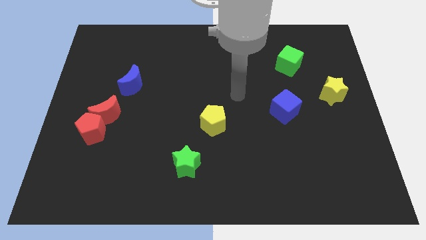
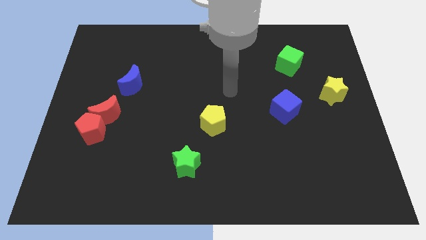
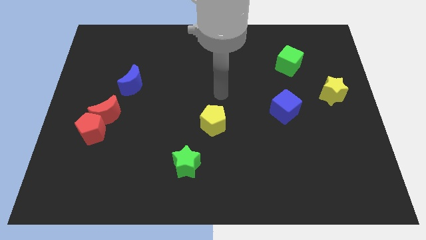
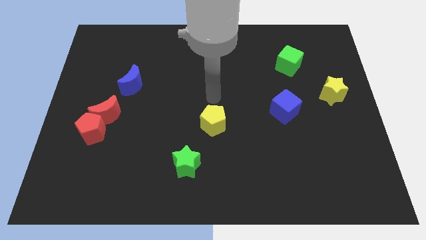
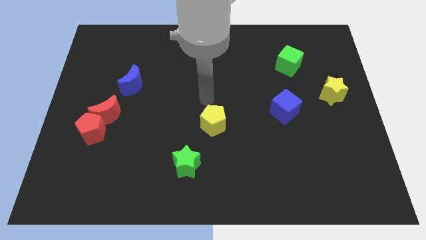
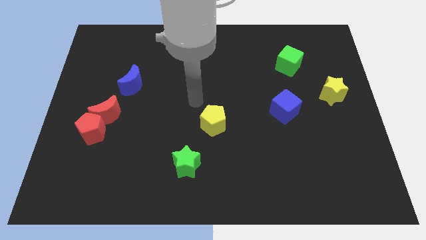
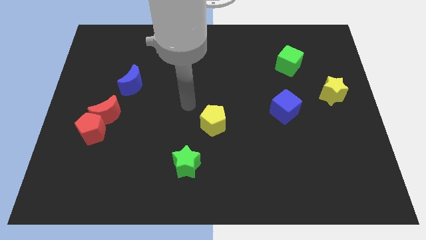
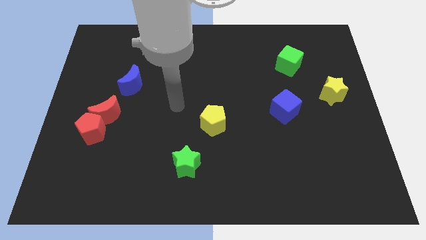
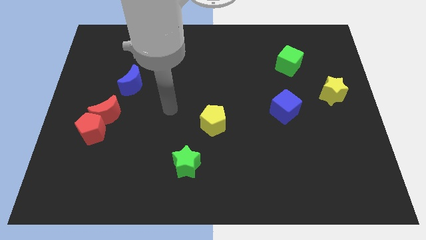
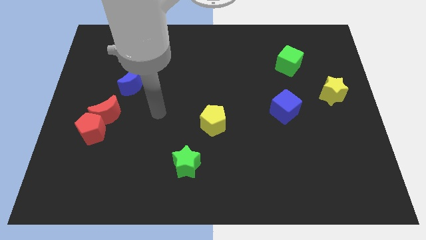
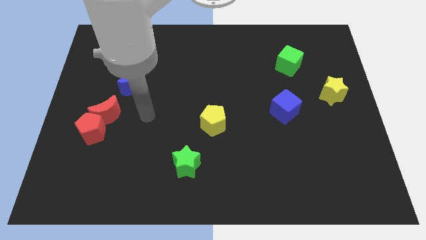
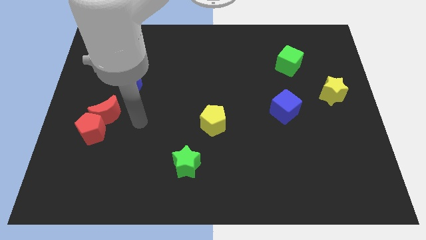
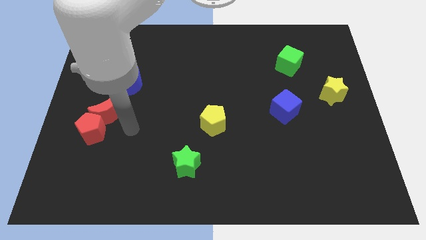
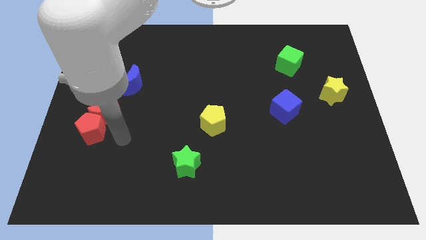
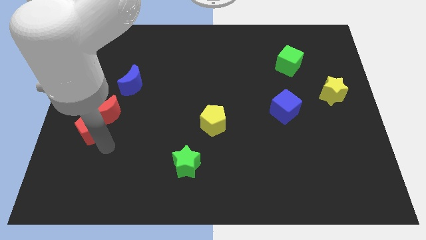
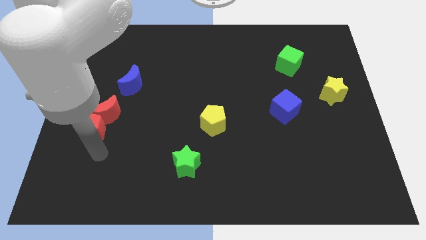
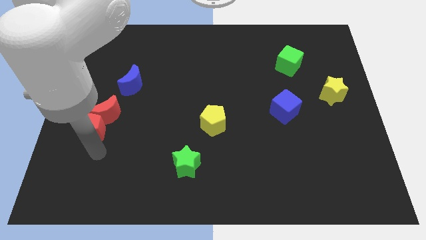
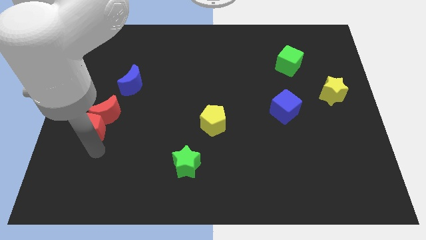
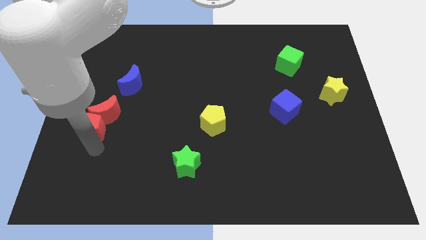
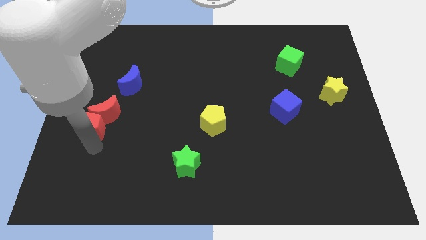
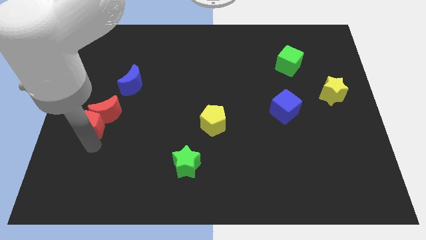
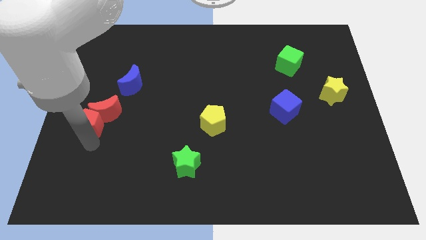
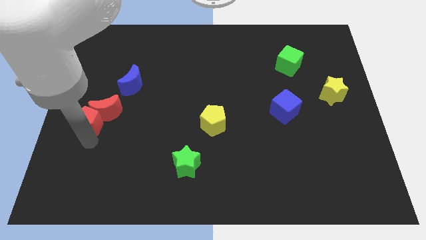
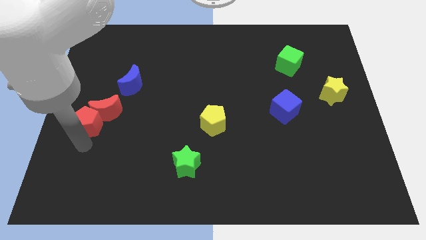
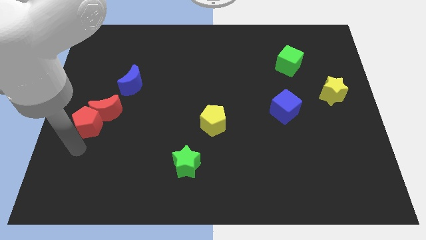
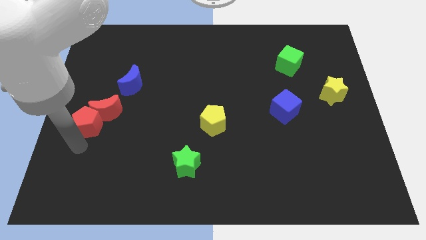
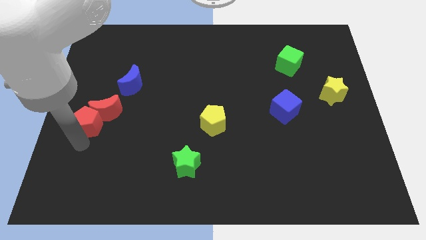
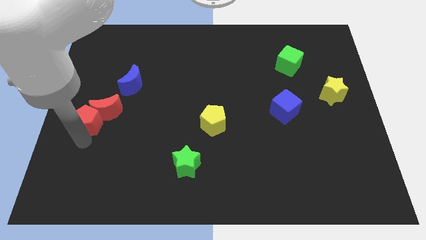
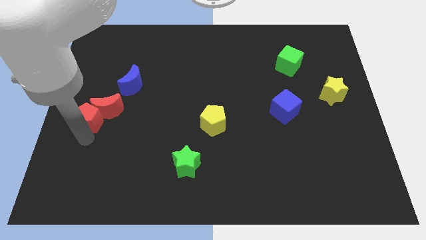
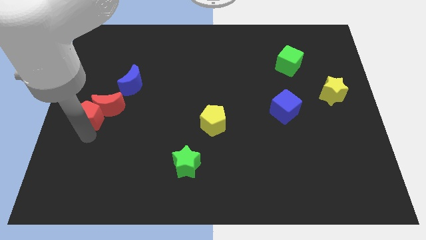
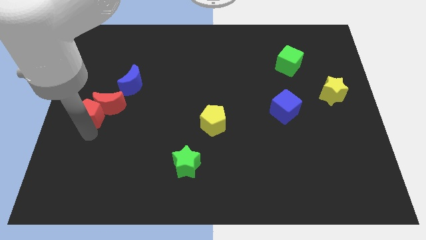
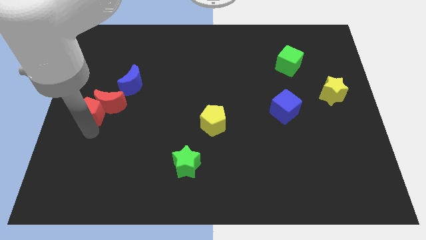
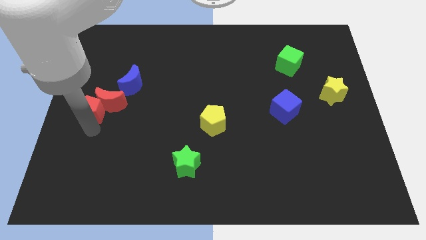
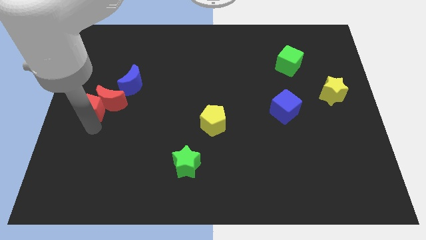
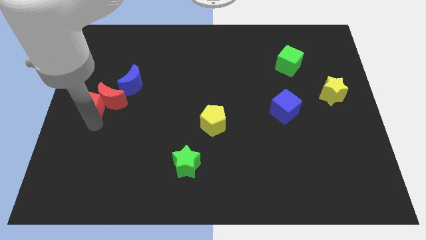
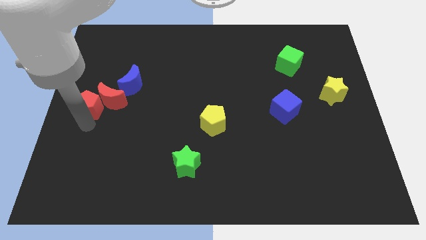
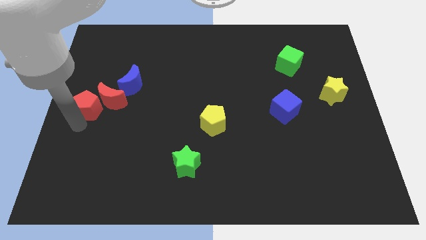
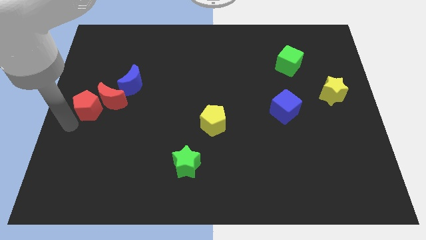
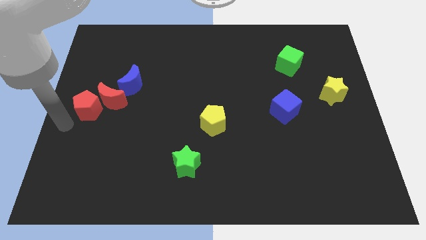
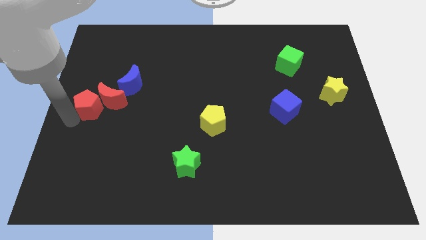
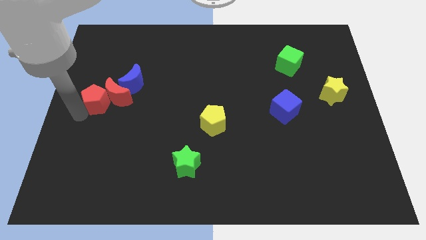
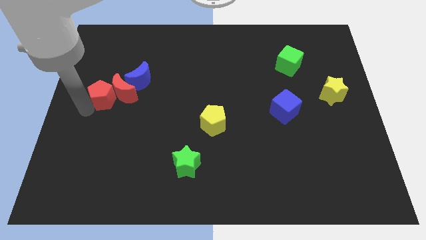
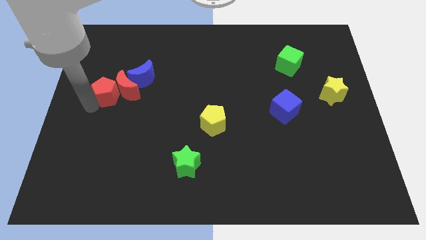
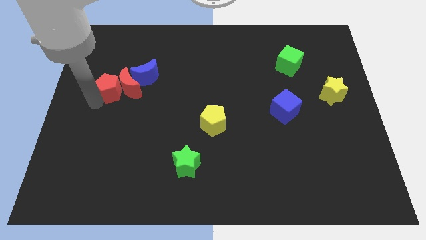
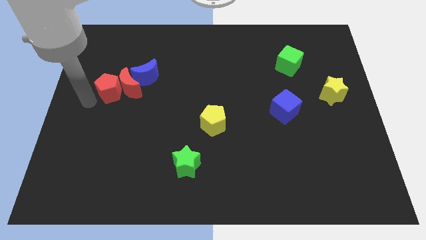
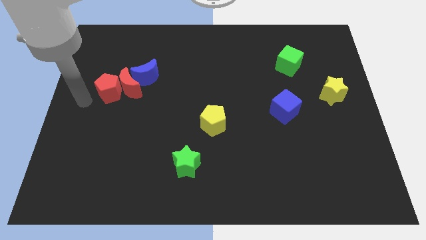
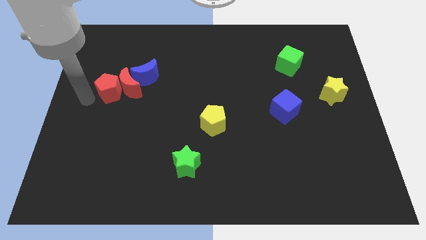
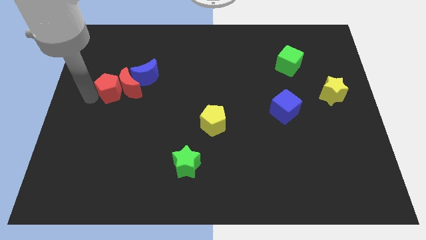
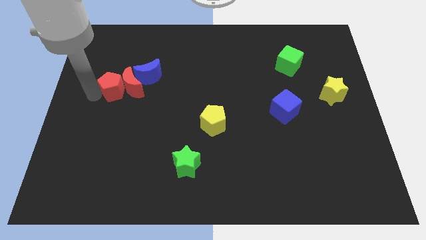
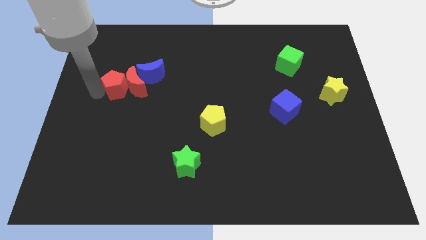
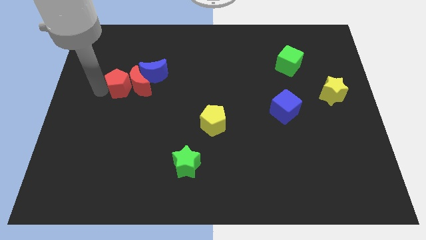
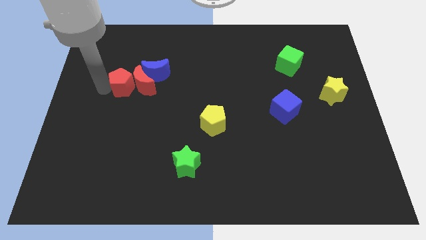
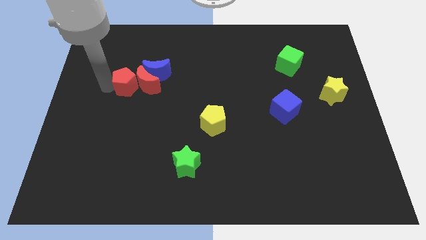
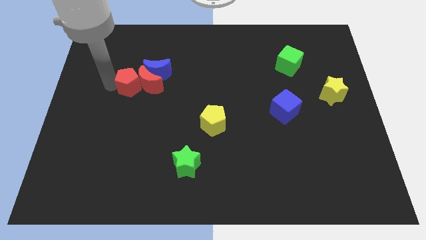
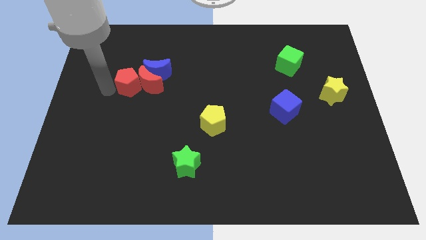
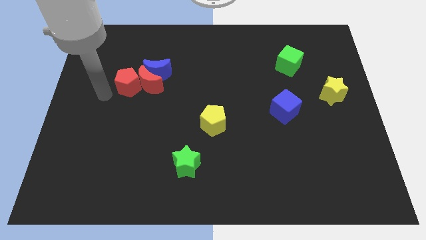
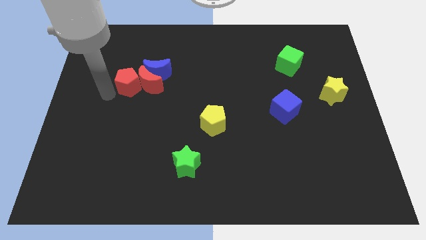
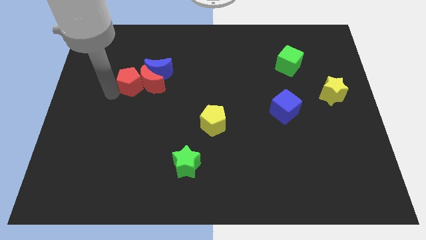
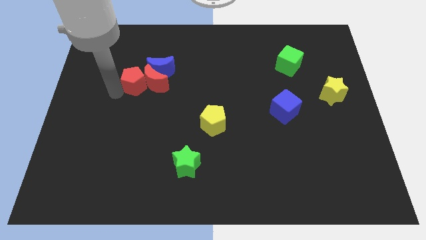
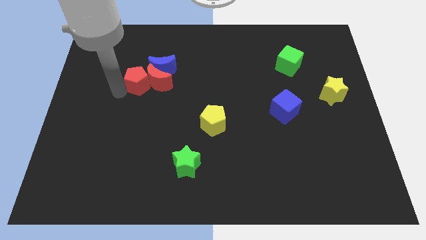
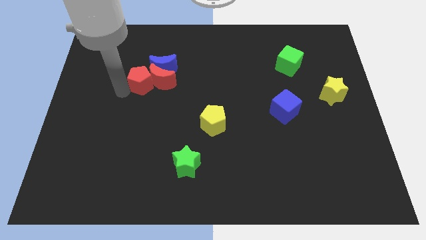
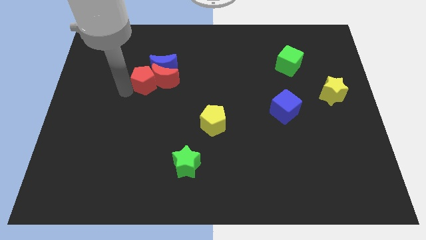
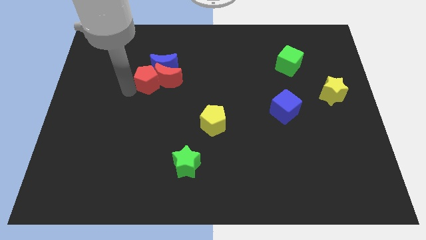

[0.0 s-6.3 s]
slide the red pentagon close to the blue moon

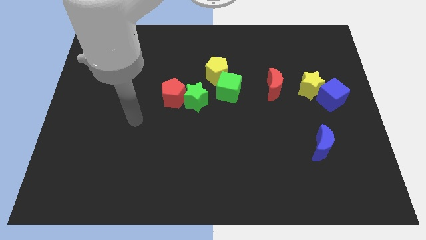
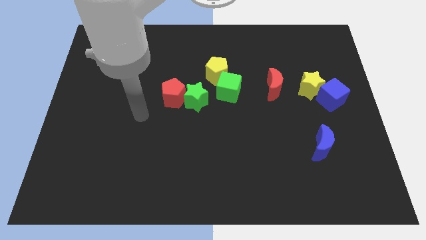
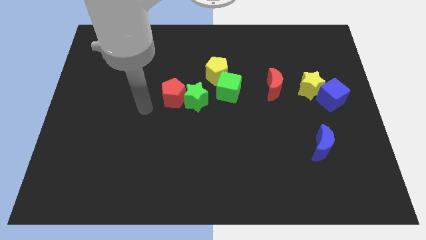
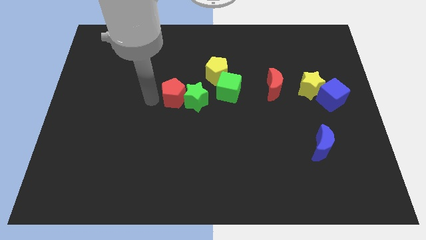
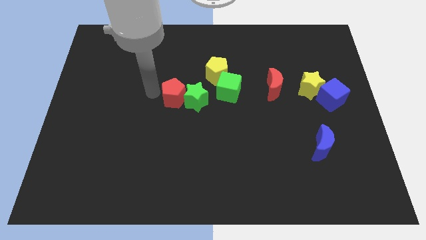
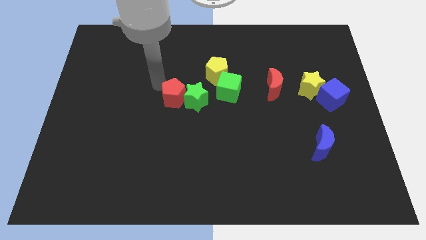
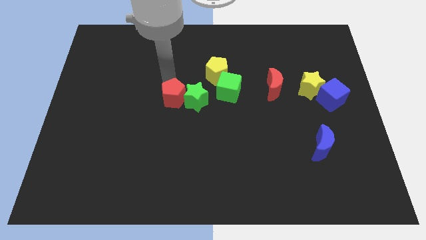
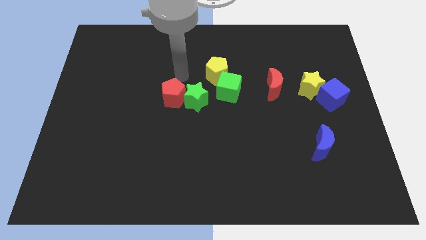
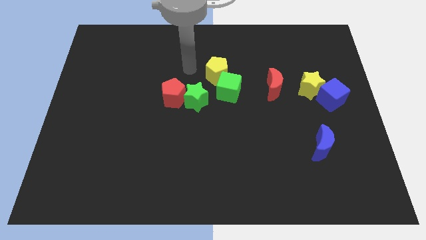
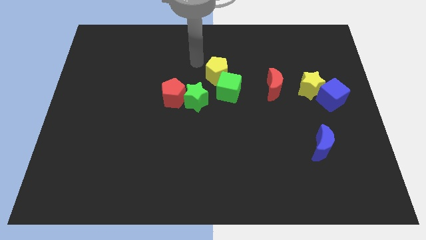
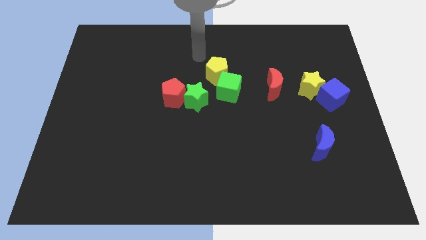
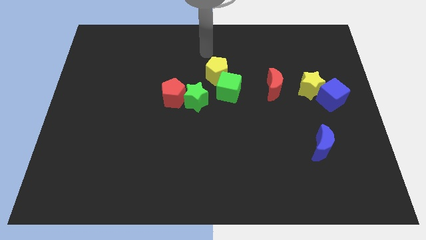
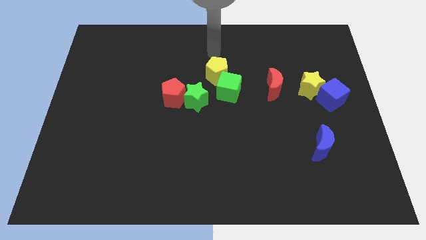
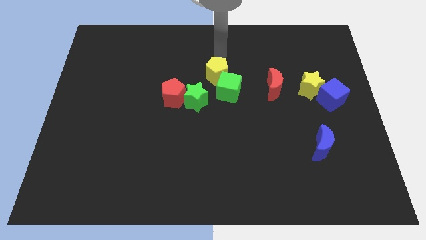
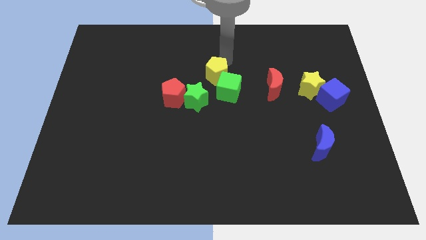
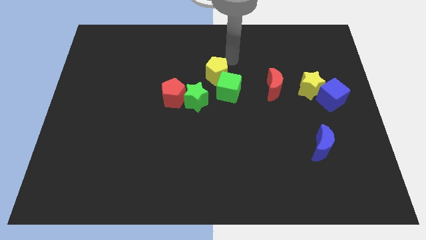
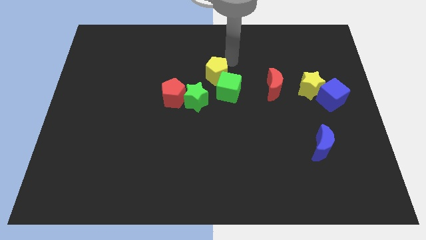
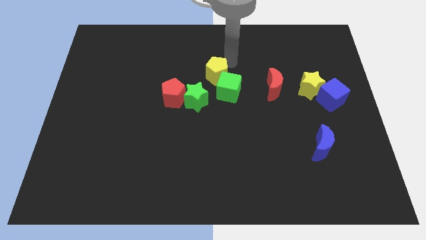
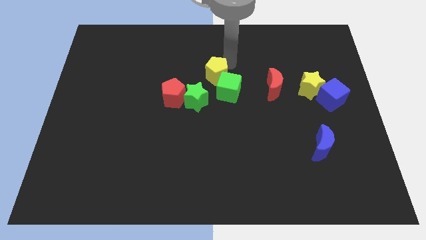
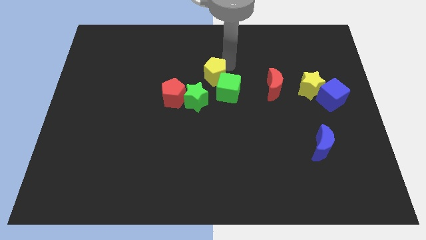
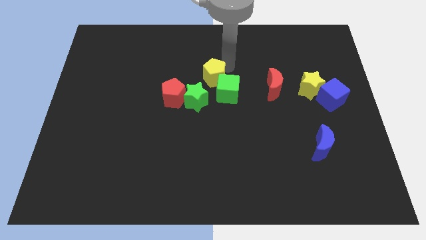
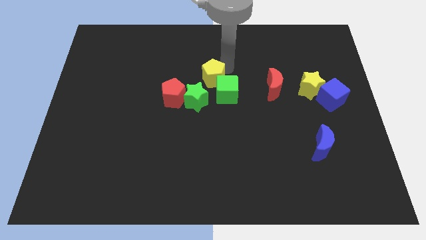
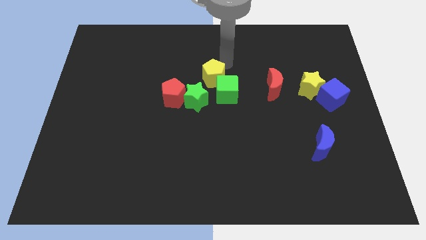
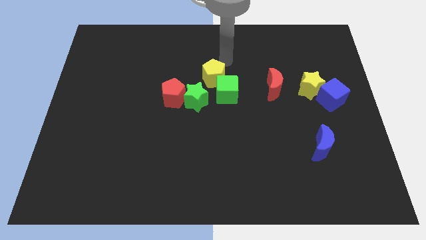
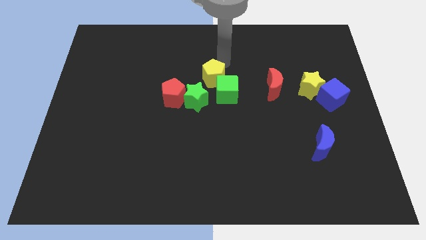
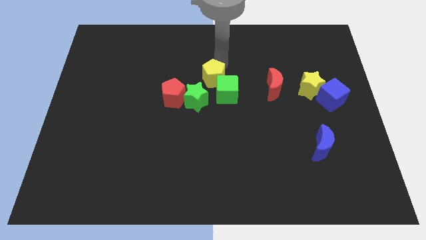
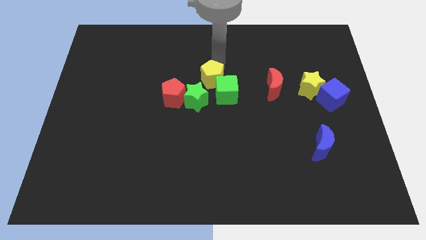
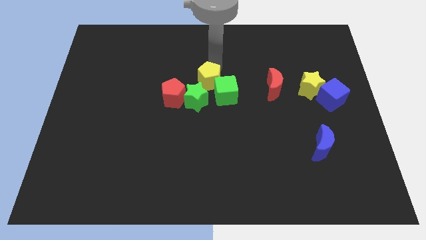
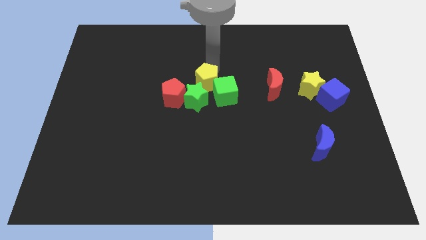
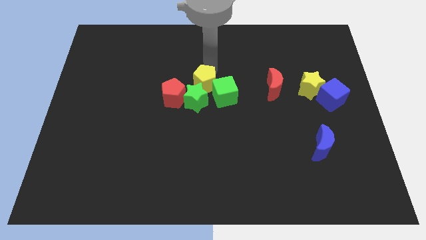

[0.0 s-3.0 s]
put the yellow pentagon next to the green star
